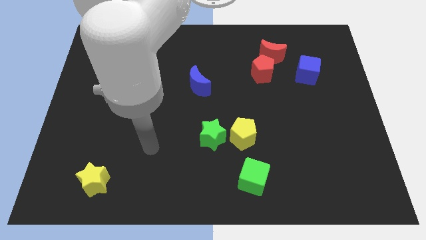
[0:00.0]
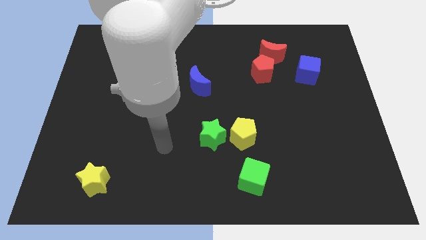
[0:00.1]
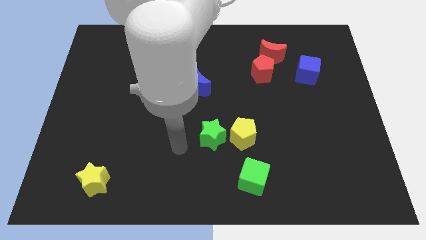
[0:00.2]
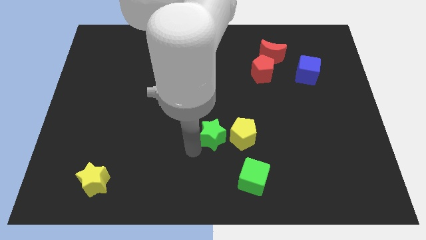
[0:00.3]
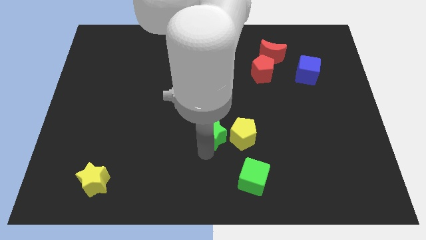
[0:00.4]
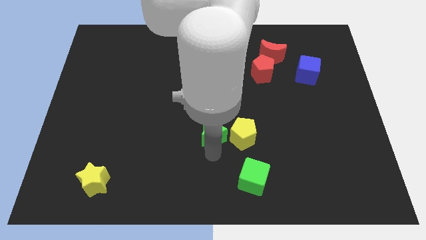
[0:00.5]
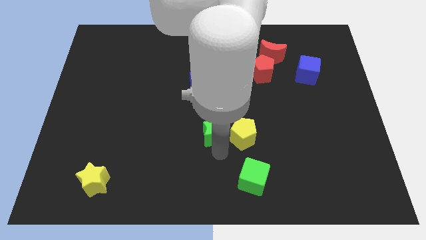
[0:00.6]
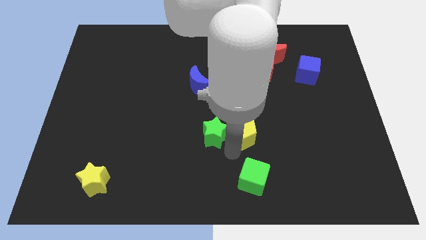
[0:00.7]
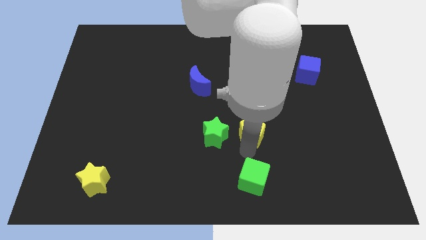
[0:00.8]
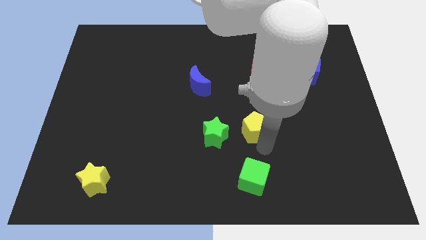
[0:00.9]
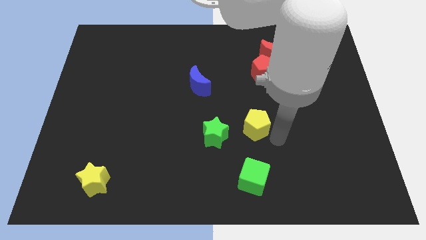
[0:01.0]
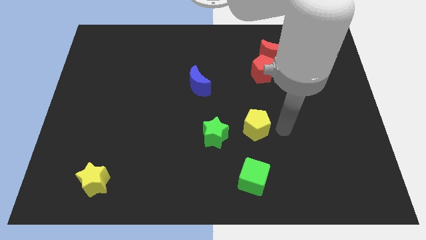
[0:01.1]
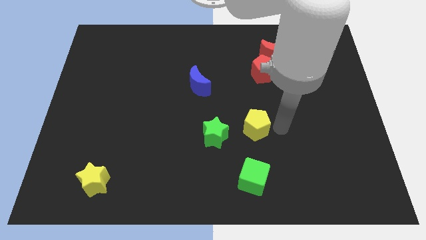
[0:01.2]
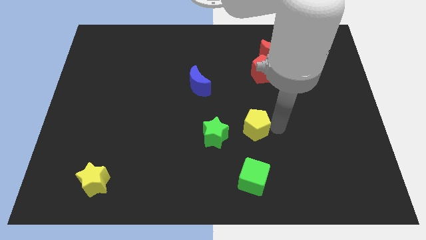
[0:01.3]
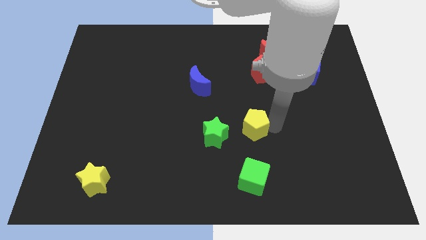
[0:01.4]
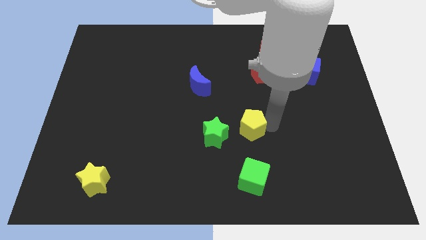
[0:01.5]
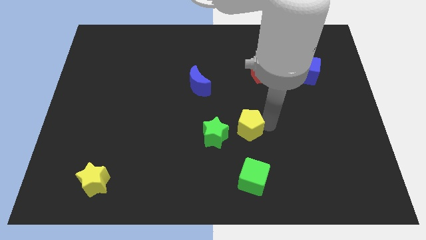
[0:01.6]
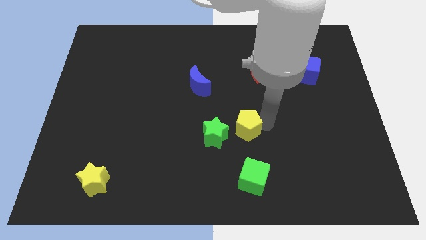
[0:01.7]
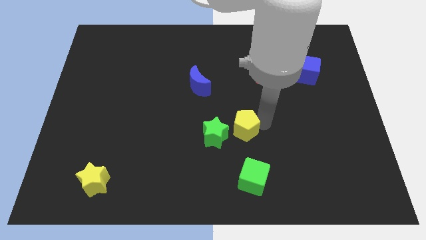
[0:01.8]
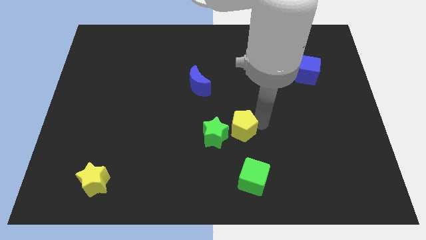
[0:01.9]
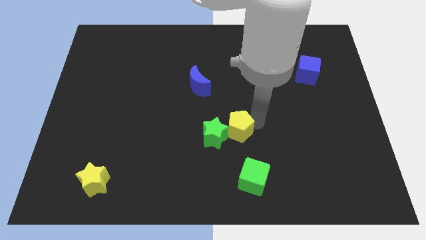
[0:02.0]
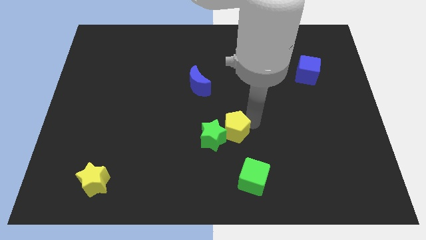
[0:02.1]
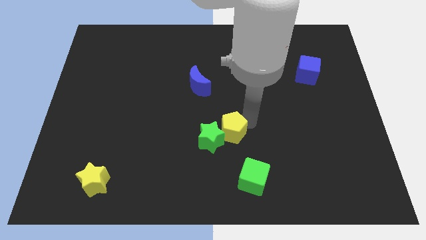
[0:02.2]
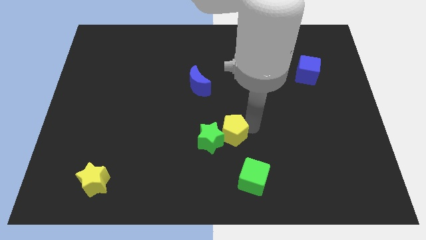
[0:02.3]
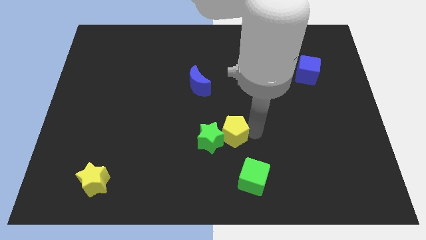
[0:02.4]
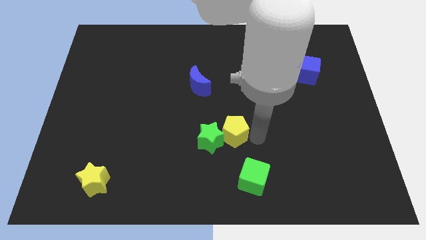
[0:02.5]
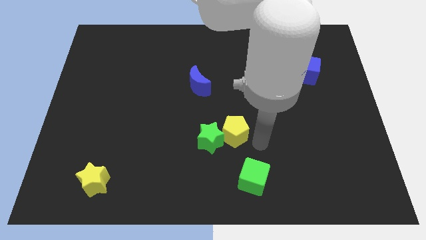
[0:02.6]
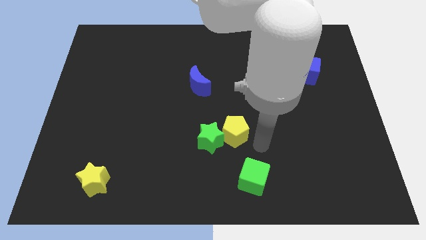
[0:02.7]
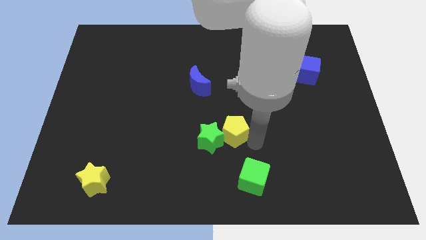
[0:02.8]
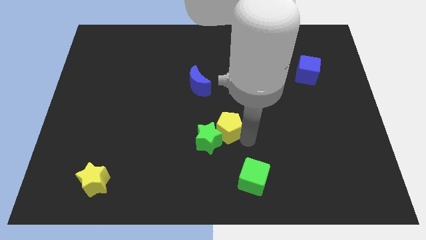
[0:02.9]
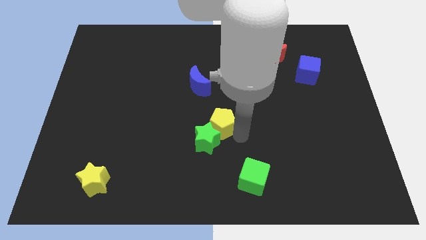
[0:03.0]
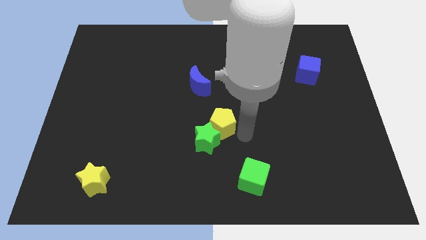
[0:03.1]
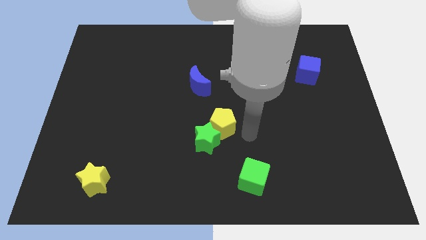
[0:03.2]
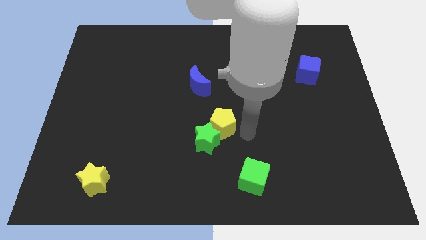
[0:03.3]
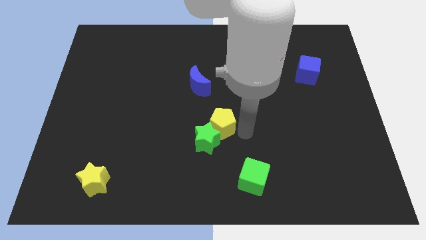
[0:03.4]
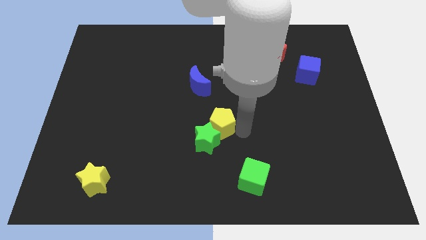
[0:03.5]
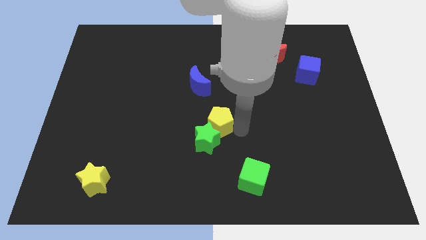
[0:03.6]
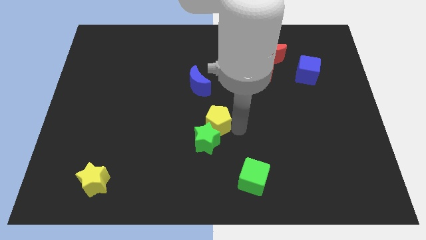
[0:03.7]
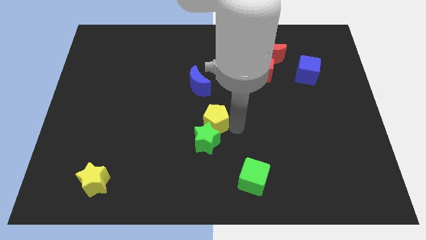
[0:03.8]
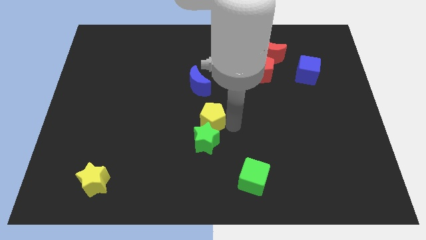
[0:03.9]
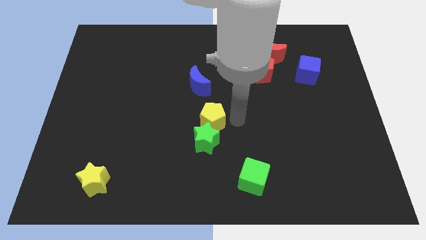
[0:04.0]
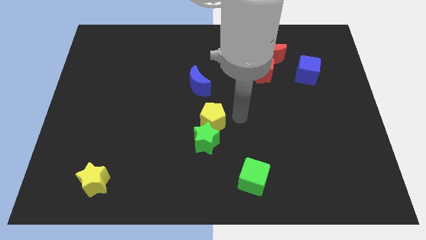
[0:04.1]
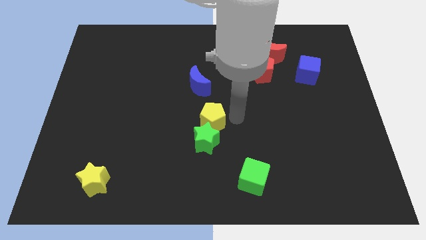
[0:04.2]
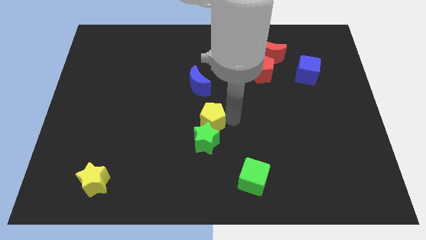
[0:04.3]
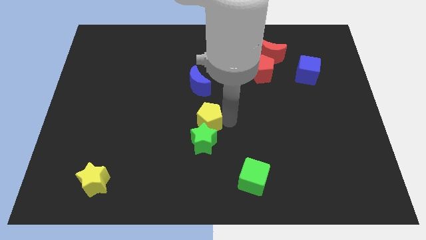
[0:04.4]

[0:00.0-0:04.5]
move the yellow pentagon to the left slightly

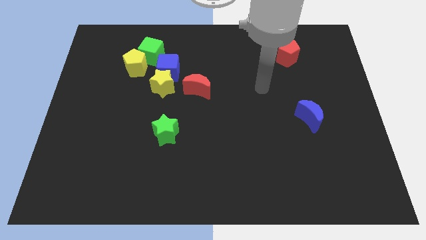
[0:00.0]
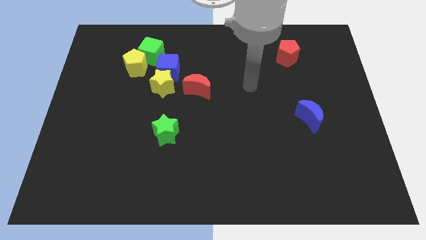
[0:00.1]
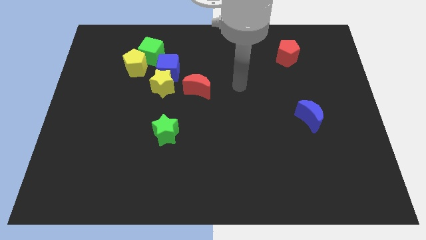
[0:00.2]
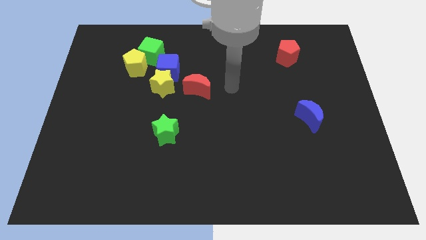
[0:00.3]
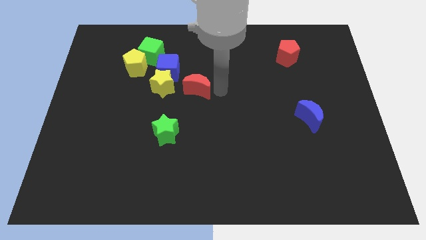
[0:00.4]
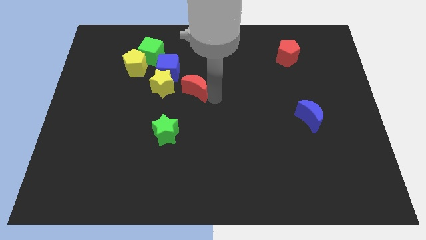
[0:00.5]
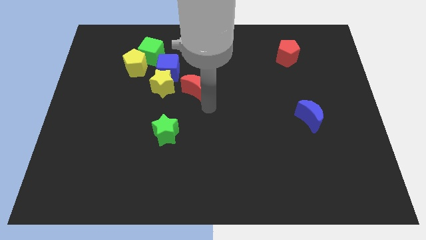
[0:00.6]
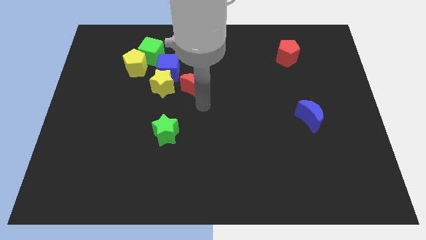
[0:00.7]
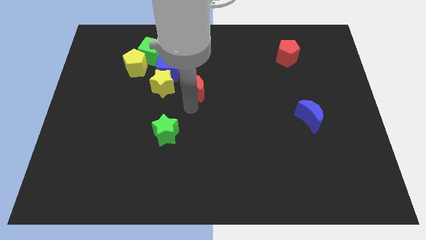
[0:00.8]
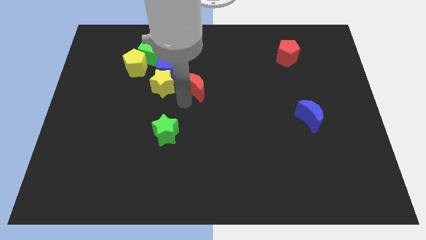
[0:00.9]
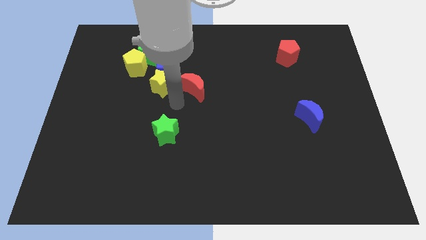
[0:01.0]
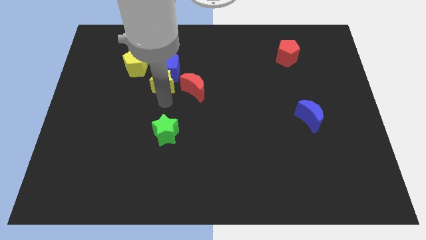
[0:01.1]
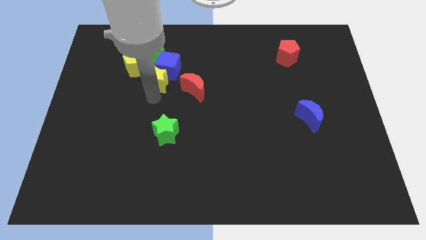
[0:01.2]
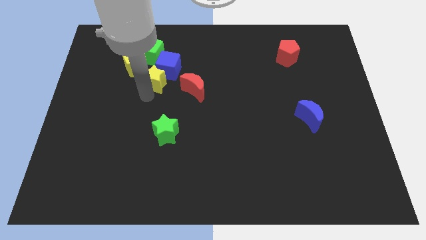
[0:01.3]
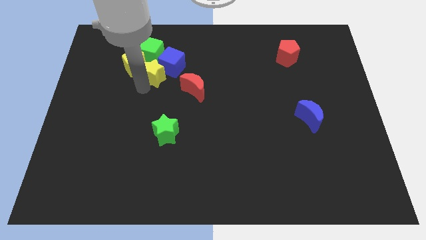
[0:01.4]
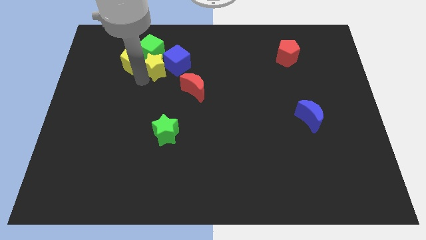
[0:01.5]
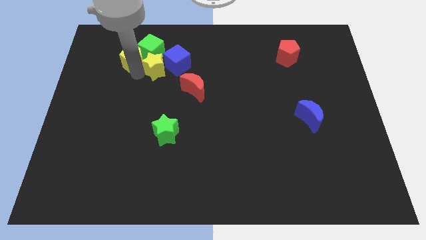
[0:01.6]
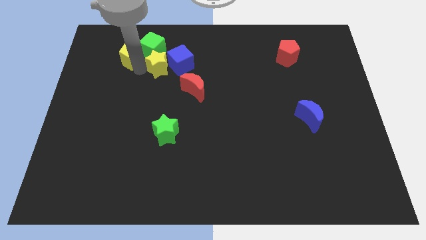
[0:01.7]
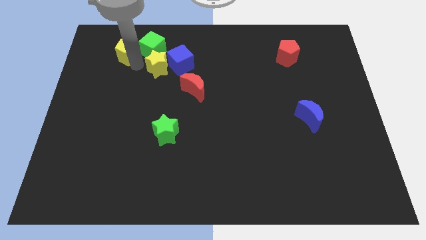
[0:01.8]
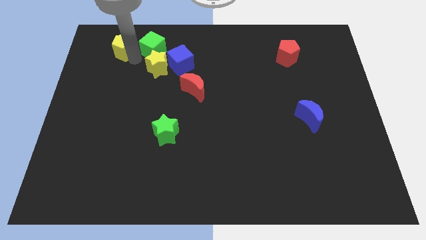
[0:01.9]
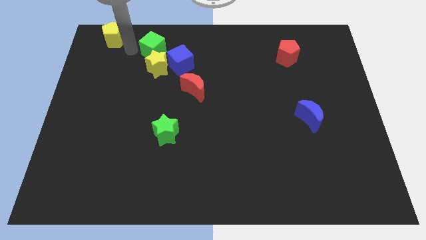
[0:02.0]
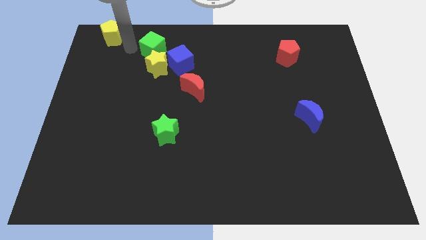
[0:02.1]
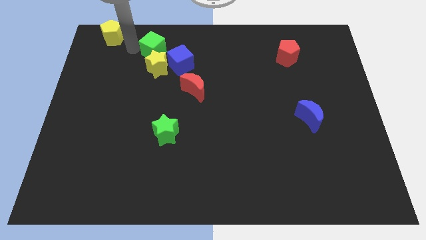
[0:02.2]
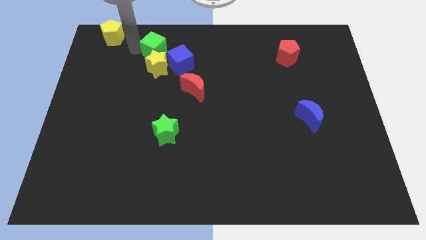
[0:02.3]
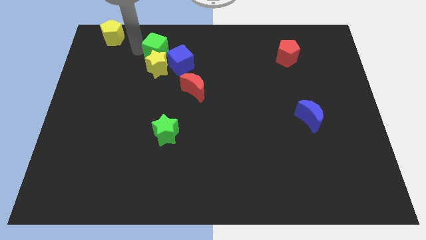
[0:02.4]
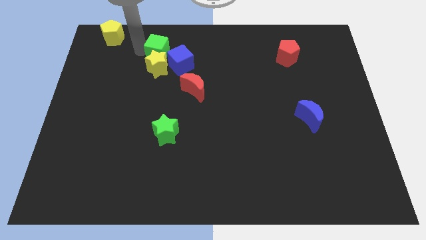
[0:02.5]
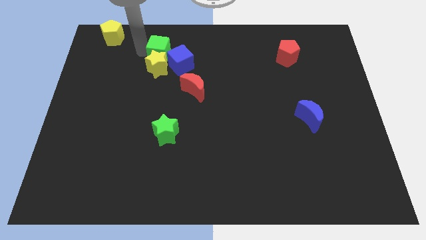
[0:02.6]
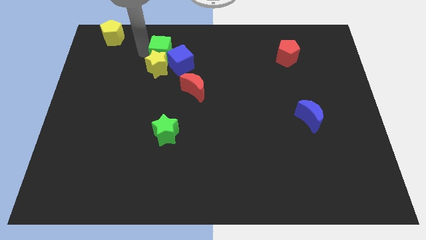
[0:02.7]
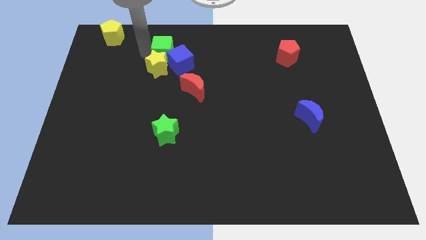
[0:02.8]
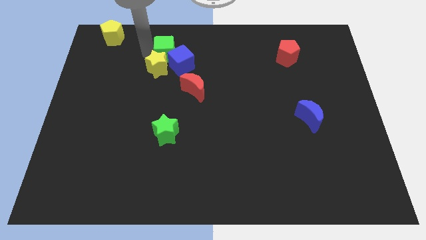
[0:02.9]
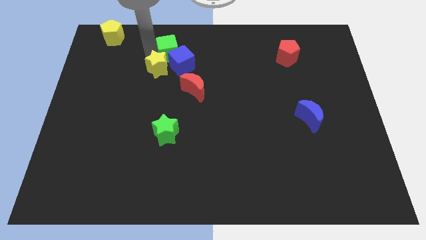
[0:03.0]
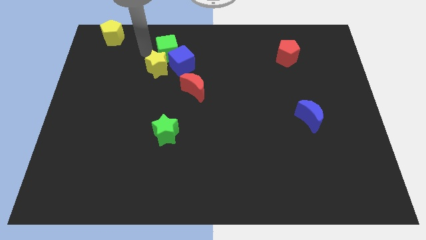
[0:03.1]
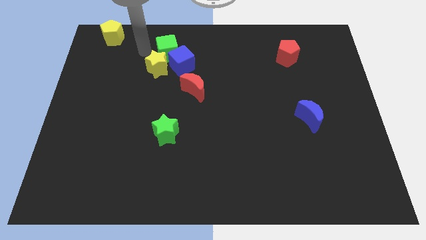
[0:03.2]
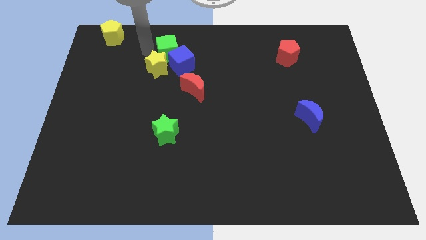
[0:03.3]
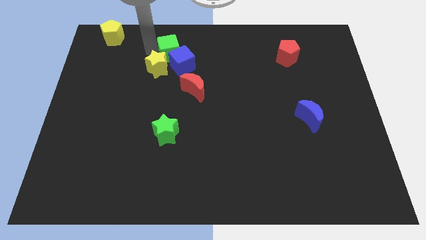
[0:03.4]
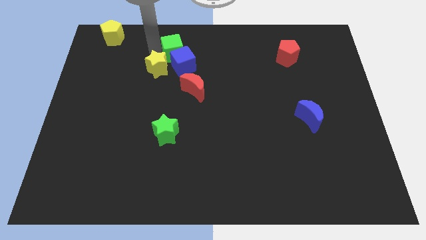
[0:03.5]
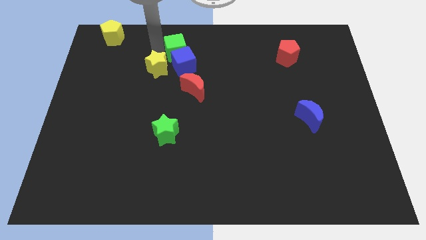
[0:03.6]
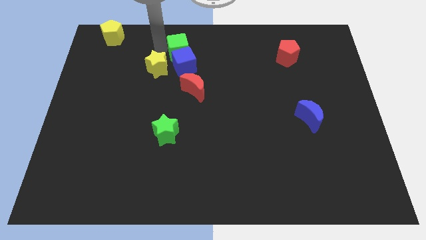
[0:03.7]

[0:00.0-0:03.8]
push the green cube to the right a bit
